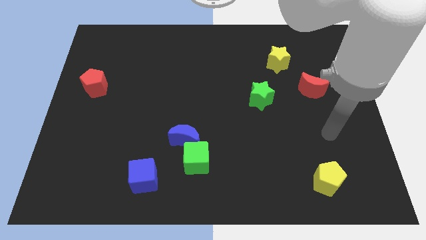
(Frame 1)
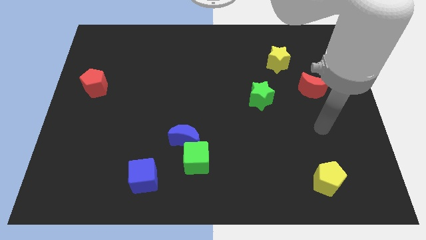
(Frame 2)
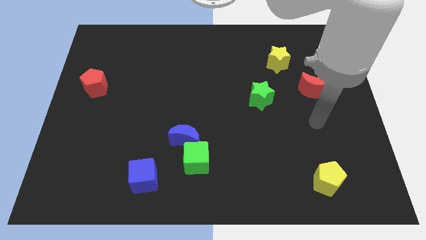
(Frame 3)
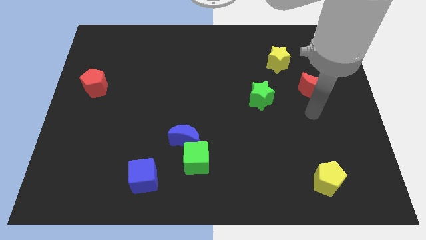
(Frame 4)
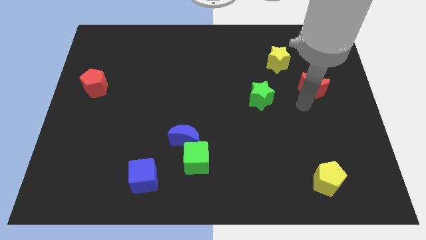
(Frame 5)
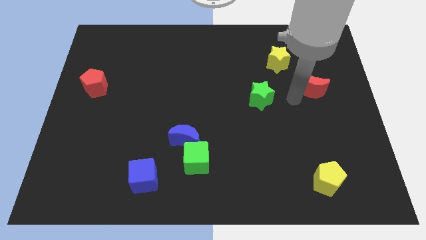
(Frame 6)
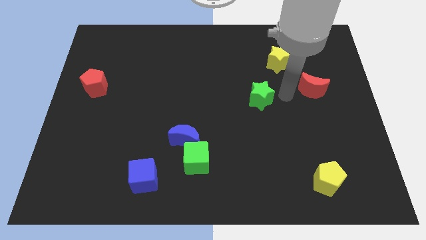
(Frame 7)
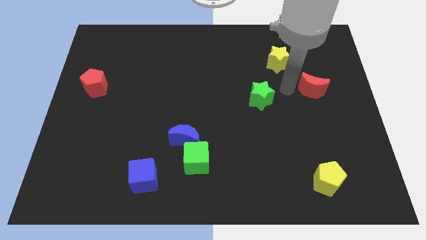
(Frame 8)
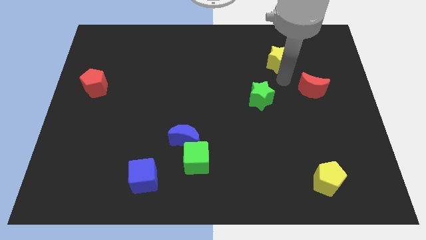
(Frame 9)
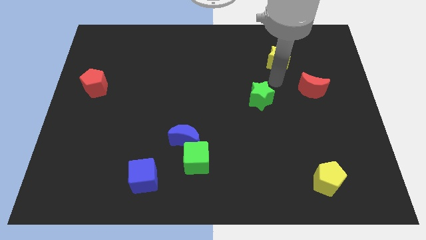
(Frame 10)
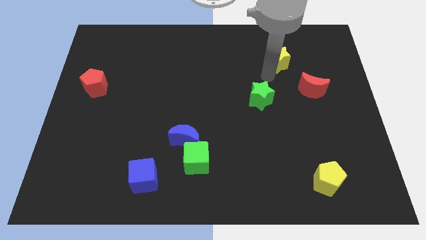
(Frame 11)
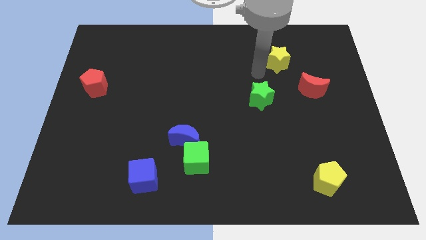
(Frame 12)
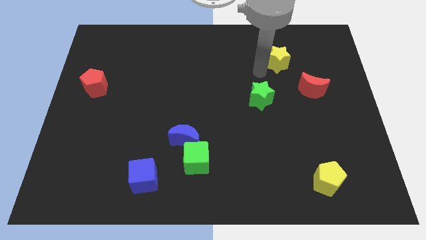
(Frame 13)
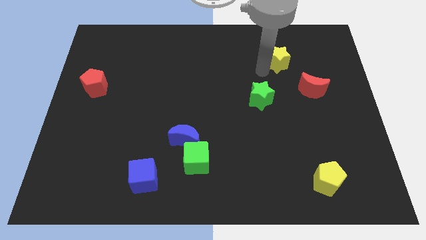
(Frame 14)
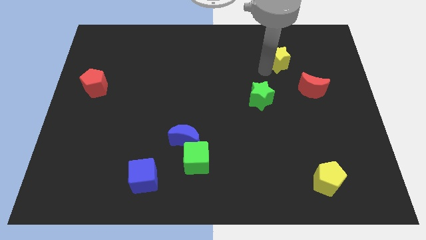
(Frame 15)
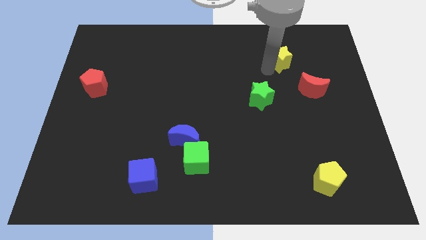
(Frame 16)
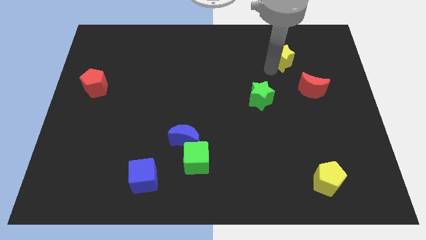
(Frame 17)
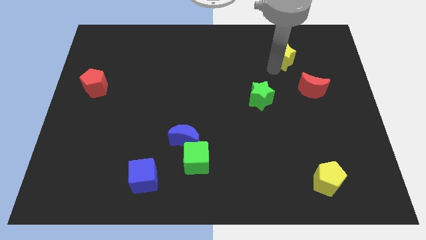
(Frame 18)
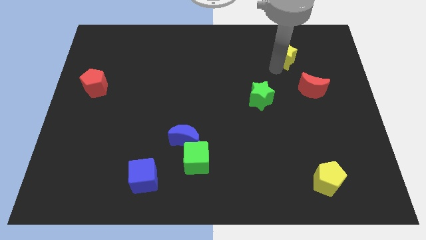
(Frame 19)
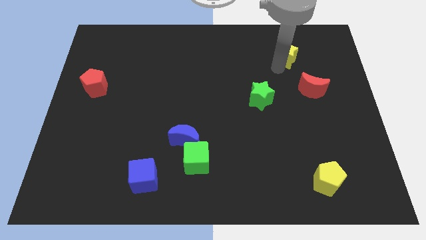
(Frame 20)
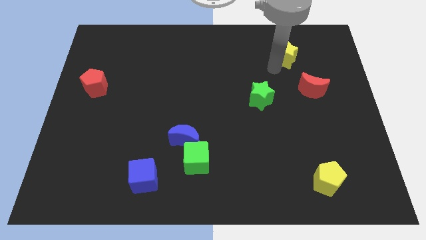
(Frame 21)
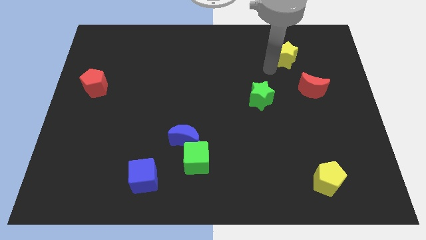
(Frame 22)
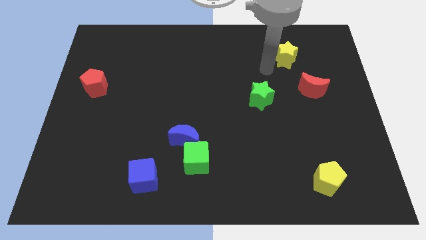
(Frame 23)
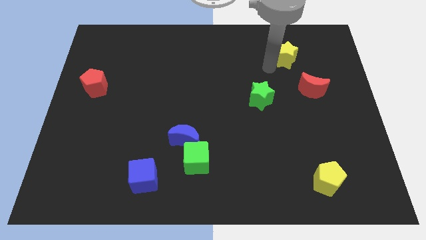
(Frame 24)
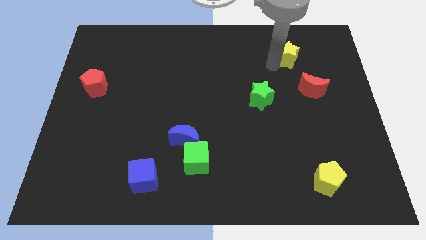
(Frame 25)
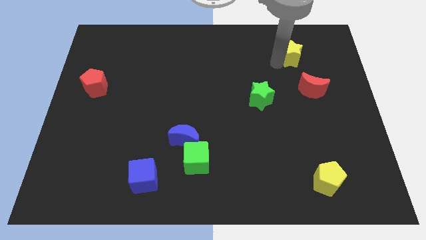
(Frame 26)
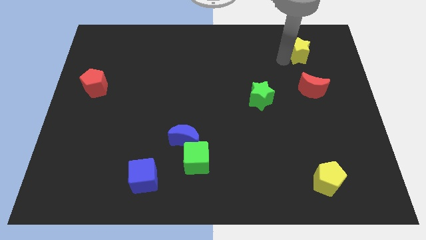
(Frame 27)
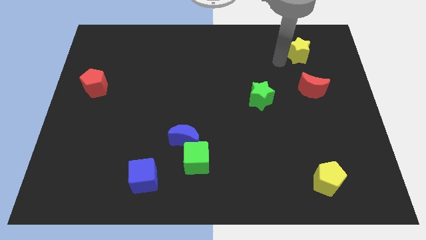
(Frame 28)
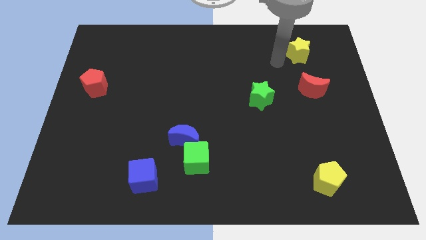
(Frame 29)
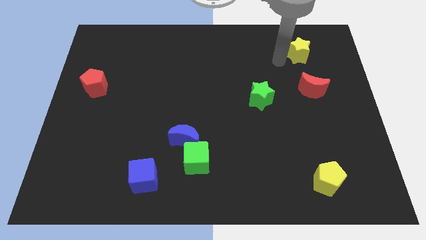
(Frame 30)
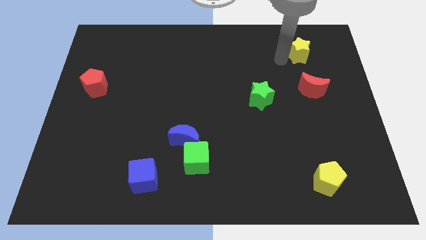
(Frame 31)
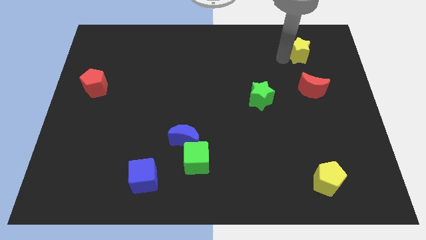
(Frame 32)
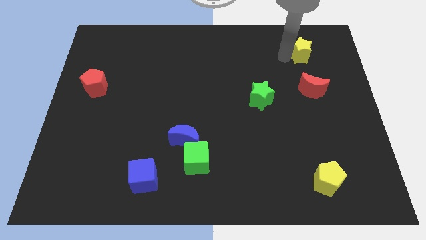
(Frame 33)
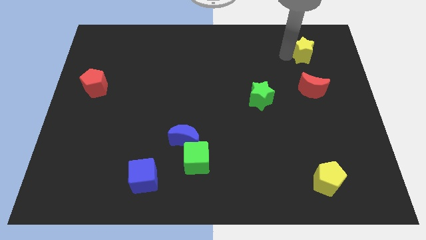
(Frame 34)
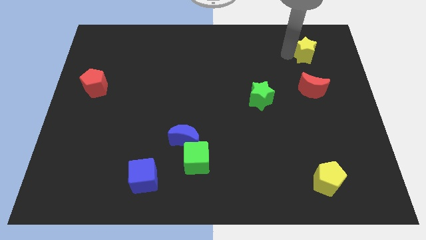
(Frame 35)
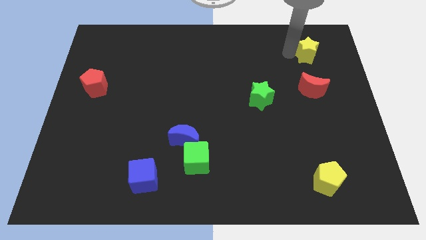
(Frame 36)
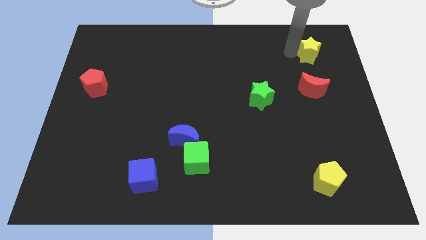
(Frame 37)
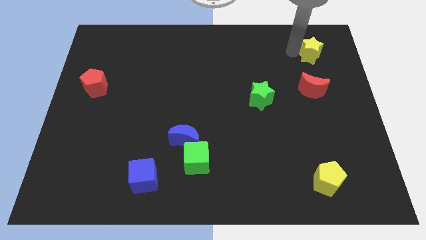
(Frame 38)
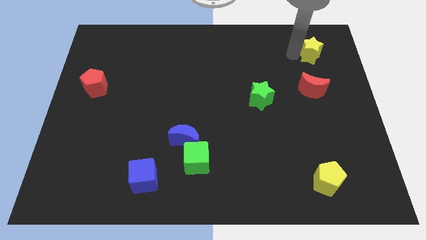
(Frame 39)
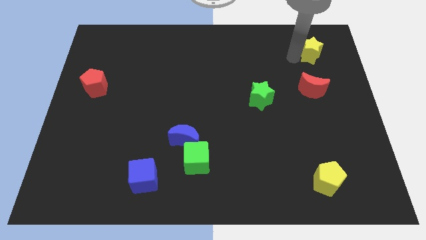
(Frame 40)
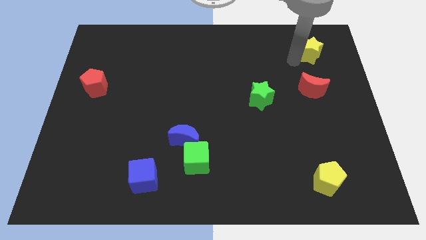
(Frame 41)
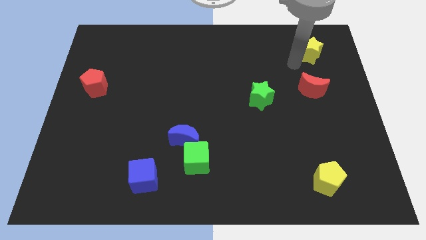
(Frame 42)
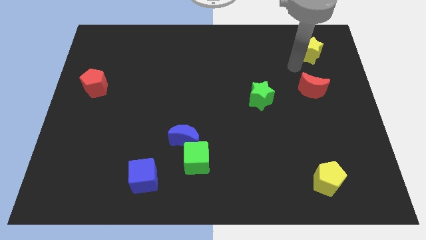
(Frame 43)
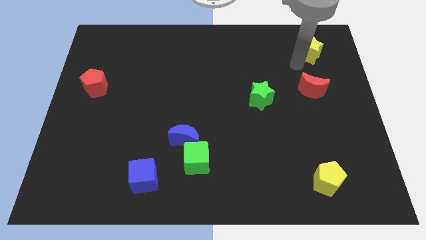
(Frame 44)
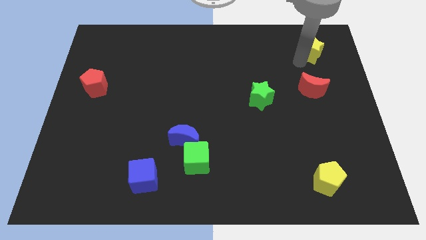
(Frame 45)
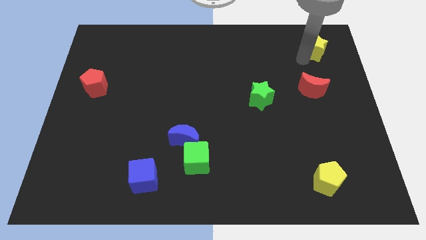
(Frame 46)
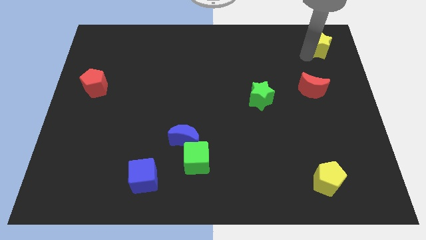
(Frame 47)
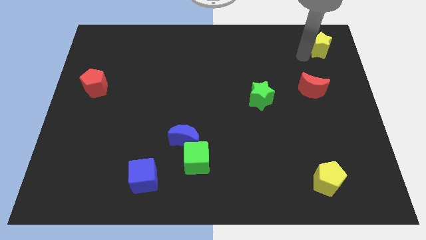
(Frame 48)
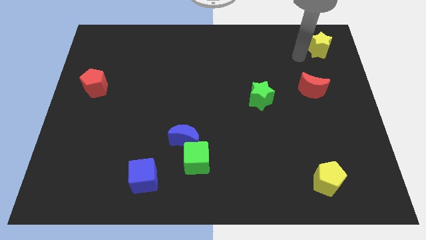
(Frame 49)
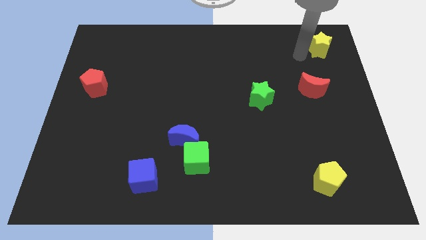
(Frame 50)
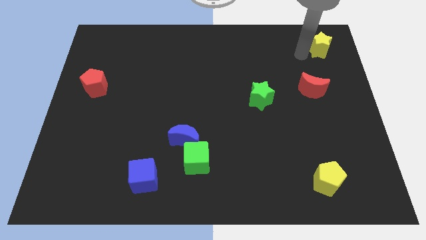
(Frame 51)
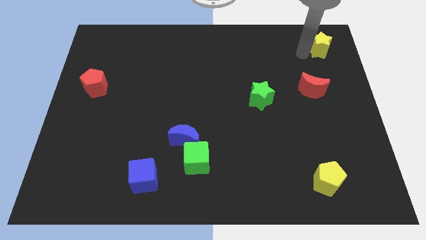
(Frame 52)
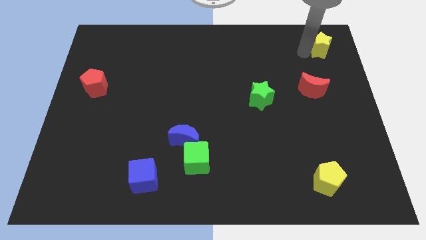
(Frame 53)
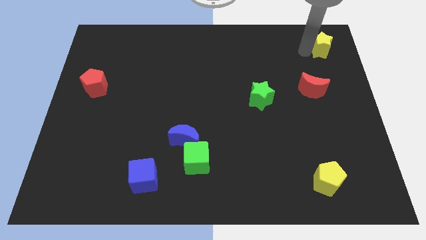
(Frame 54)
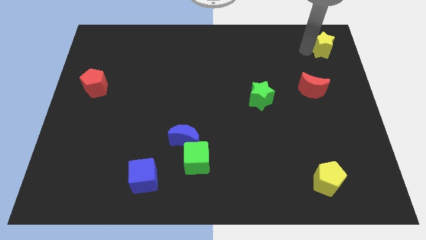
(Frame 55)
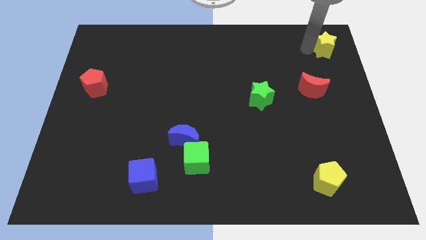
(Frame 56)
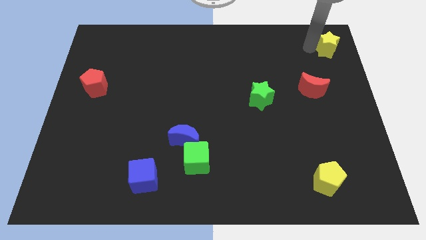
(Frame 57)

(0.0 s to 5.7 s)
push the yellow star to the upper right corner

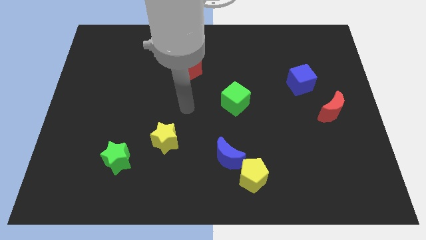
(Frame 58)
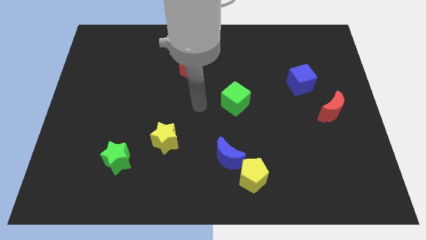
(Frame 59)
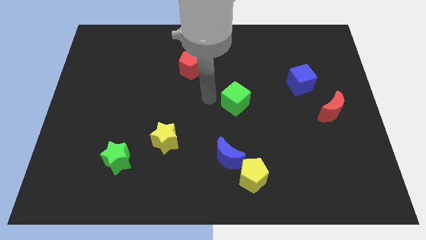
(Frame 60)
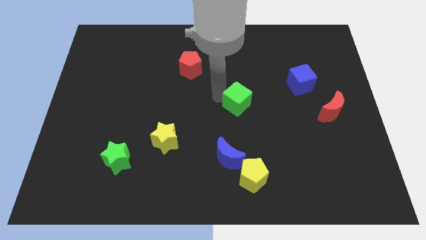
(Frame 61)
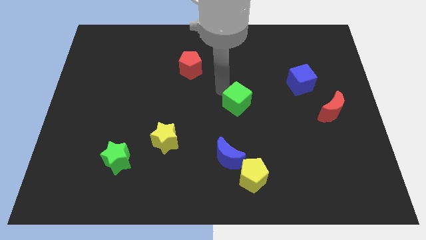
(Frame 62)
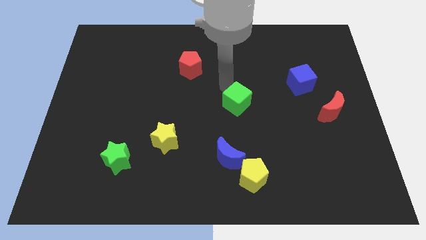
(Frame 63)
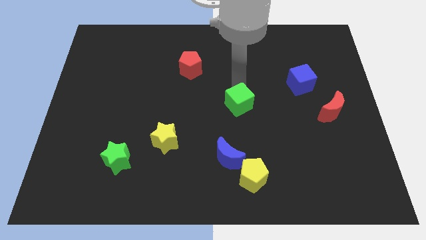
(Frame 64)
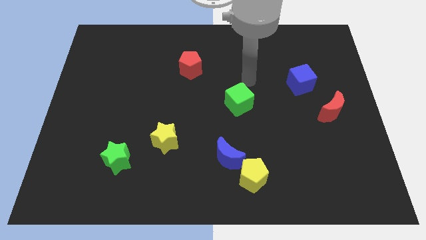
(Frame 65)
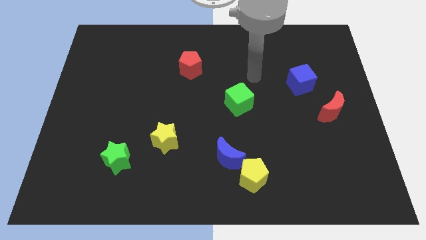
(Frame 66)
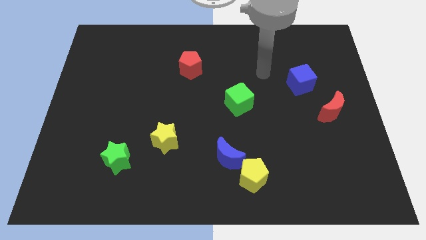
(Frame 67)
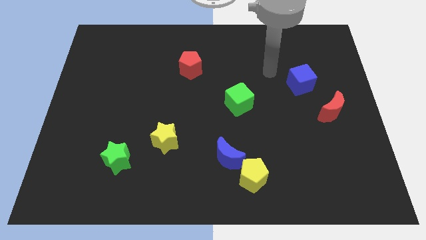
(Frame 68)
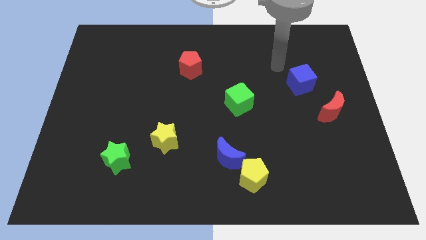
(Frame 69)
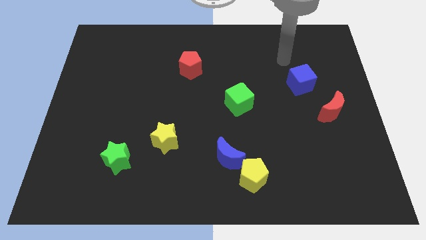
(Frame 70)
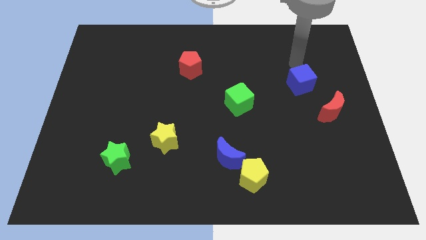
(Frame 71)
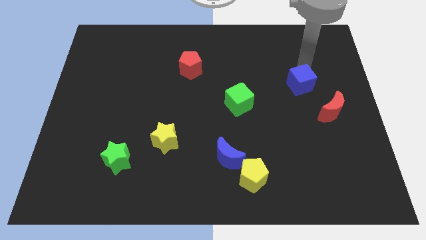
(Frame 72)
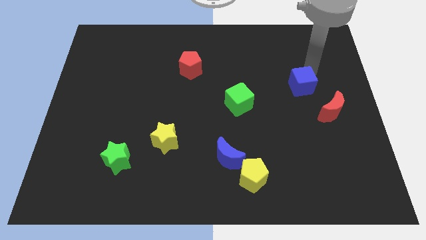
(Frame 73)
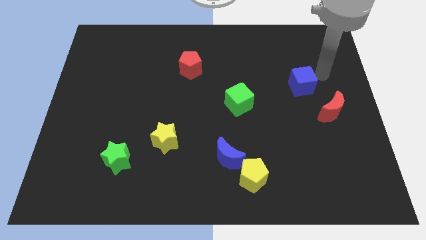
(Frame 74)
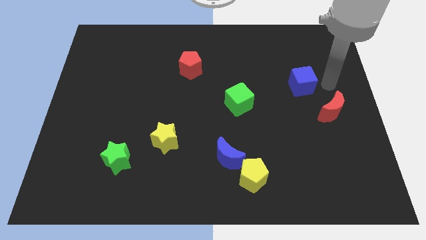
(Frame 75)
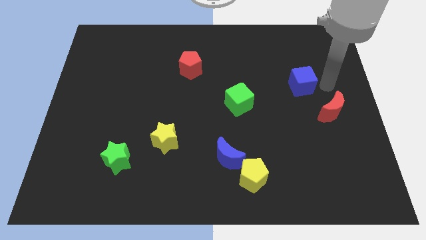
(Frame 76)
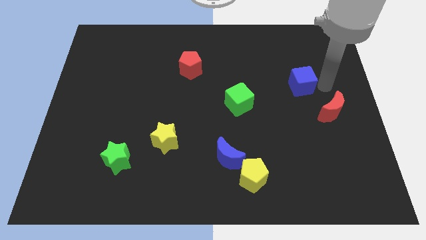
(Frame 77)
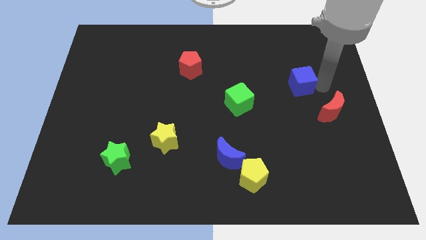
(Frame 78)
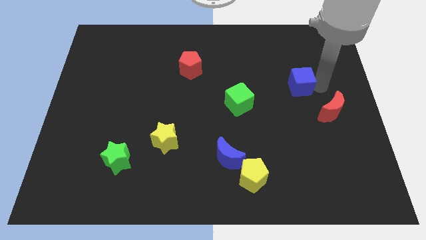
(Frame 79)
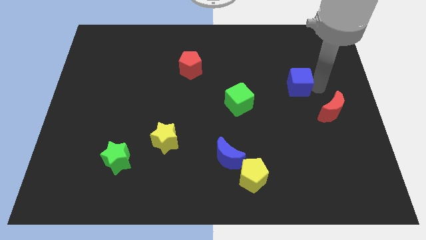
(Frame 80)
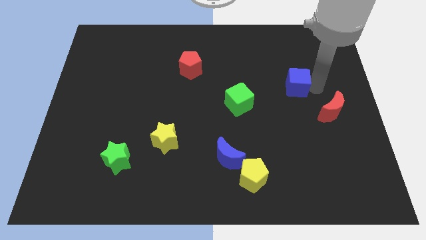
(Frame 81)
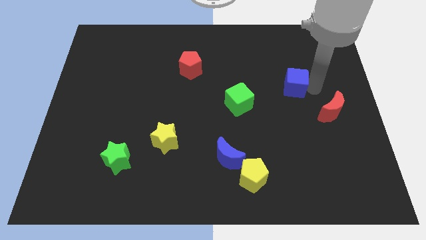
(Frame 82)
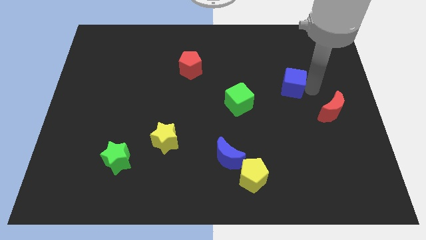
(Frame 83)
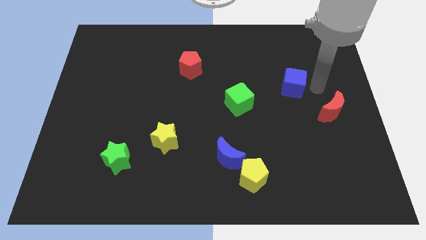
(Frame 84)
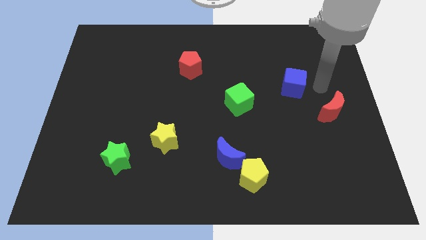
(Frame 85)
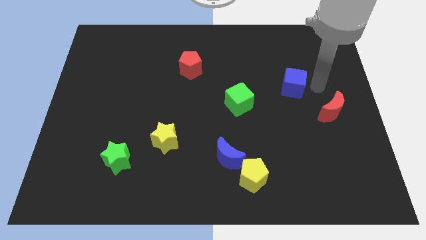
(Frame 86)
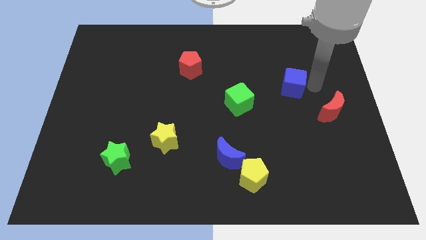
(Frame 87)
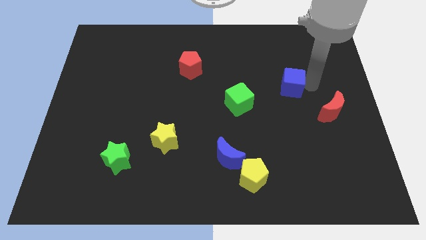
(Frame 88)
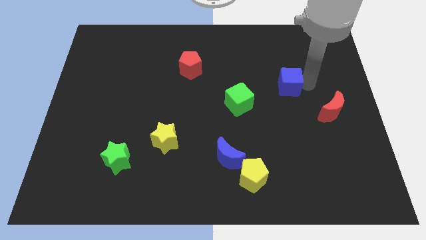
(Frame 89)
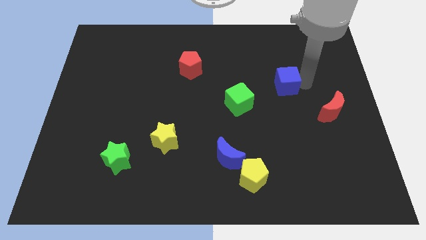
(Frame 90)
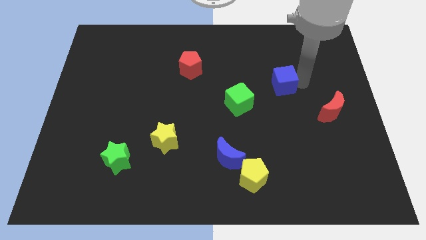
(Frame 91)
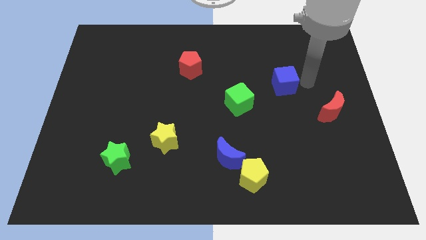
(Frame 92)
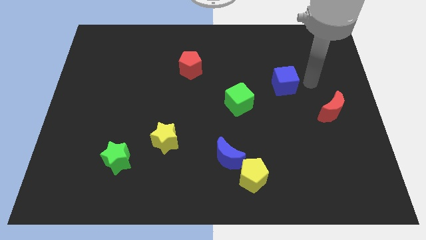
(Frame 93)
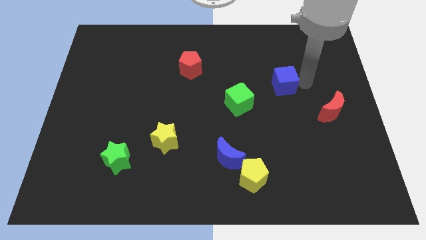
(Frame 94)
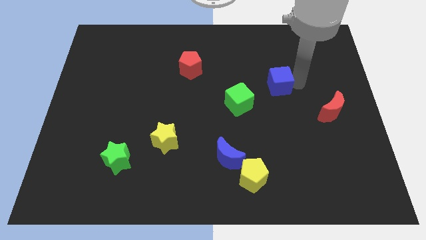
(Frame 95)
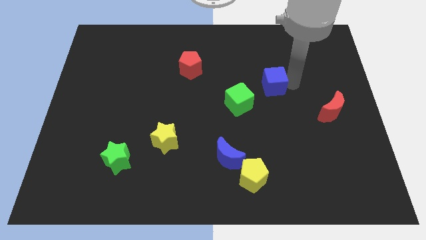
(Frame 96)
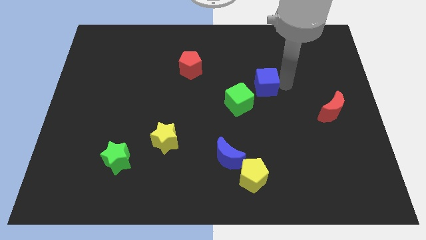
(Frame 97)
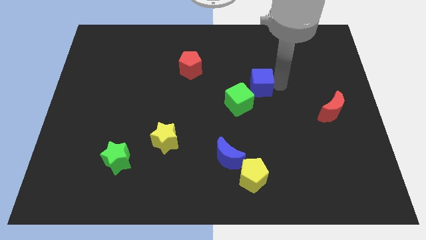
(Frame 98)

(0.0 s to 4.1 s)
put the blue cube to the center
